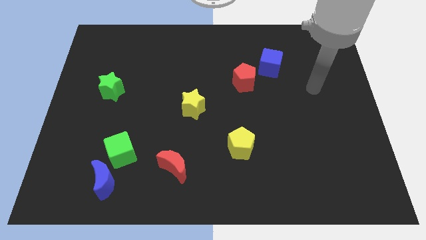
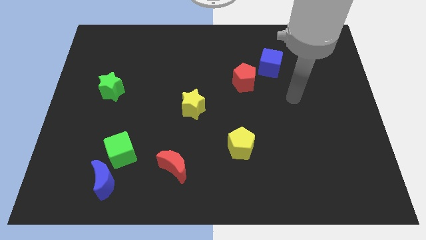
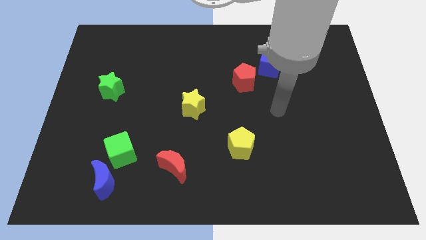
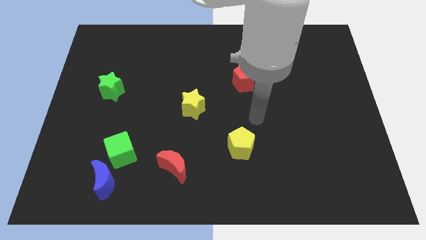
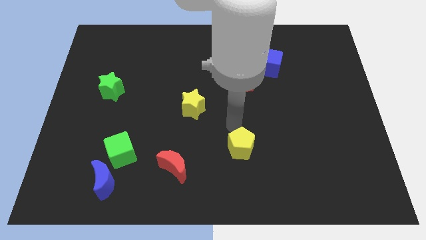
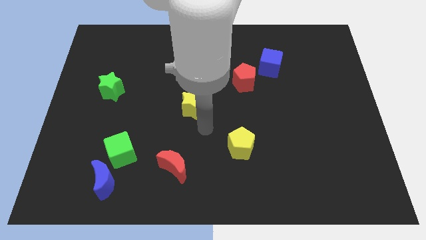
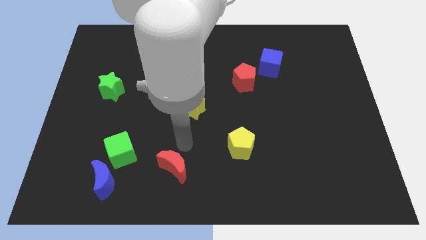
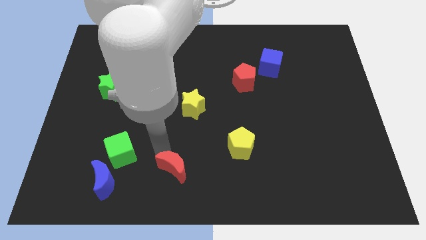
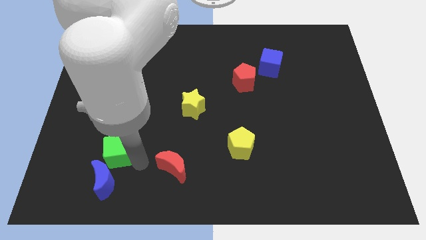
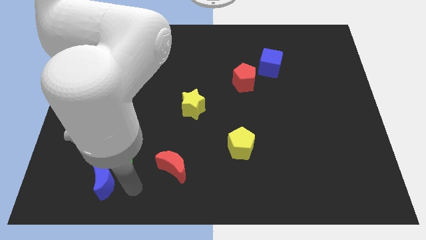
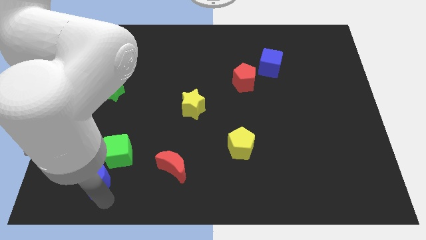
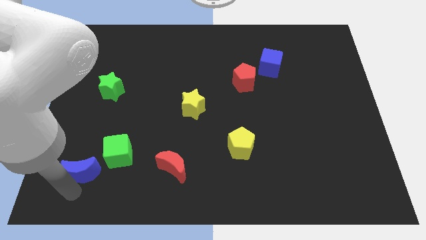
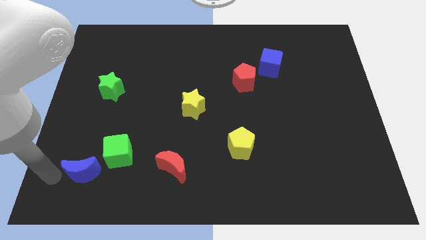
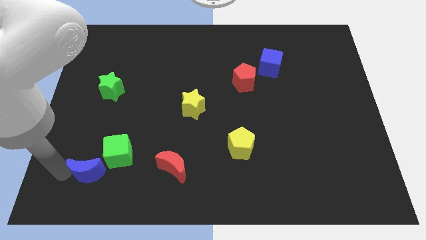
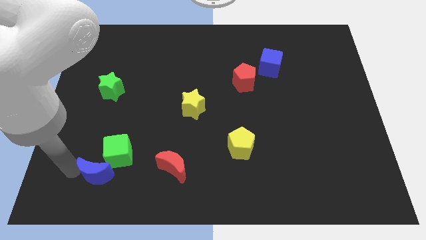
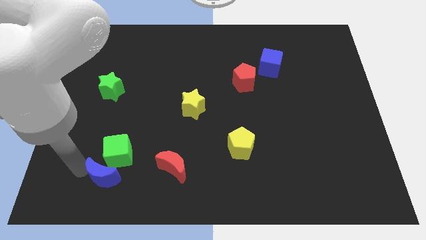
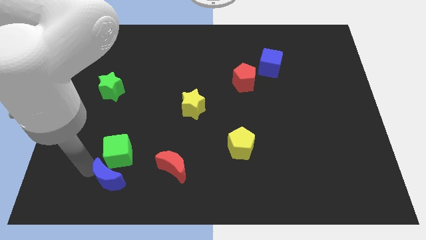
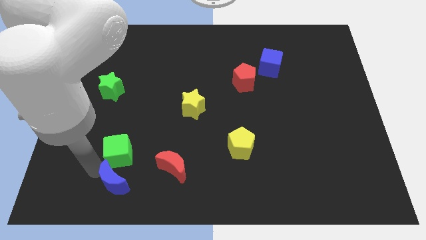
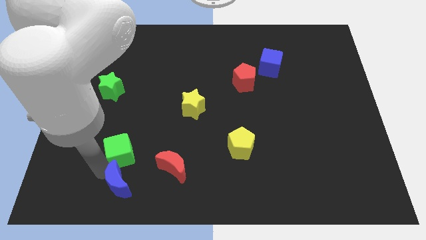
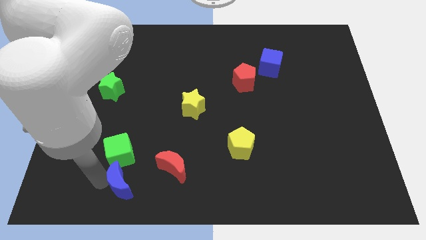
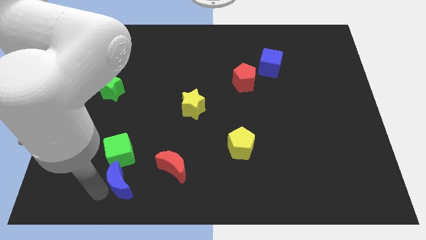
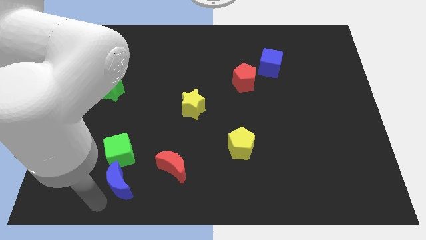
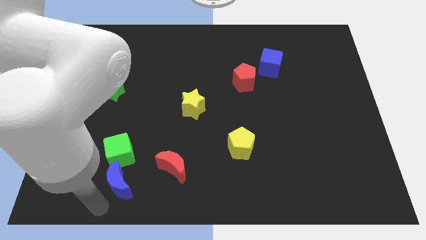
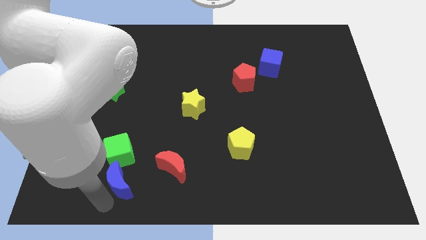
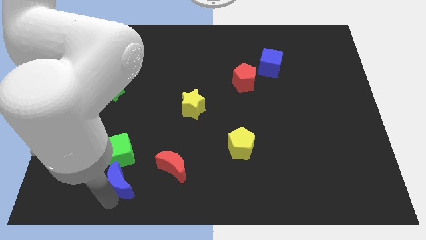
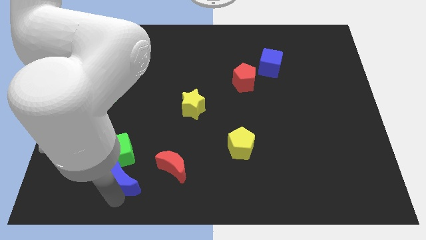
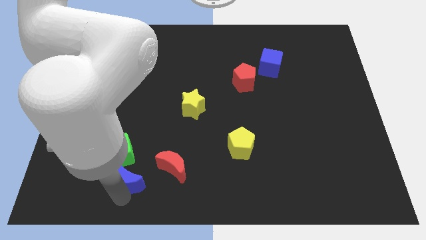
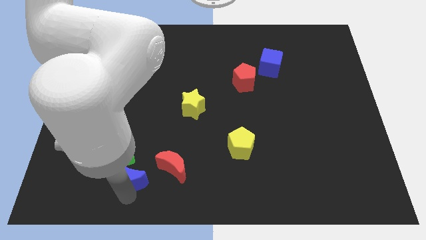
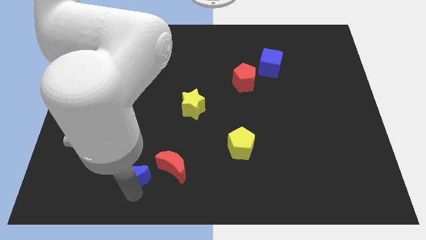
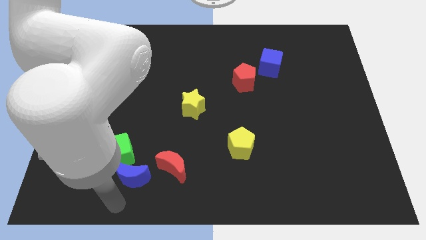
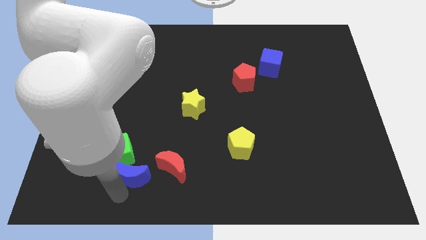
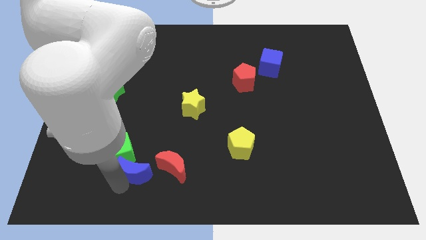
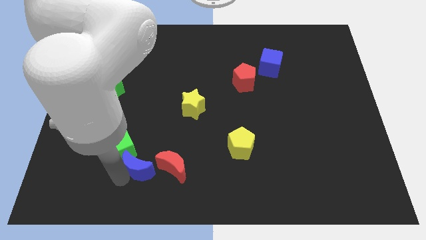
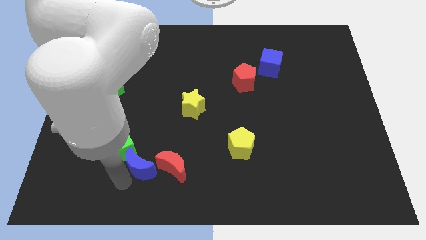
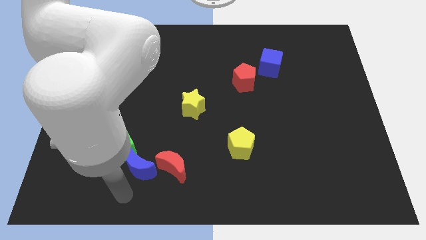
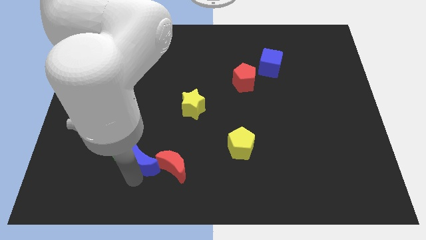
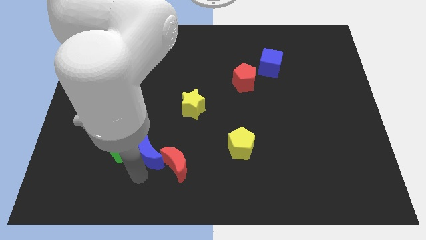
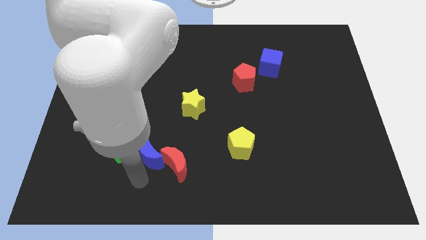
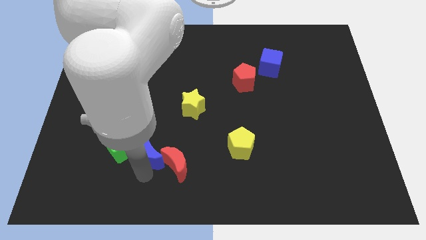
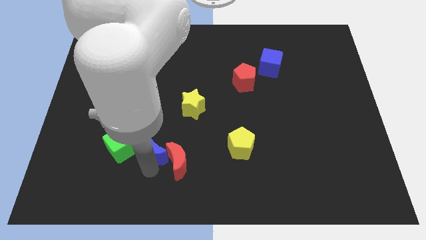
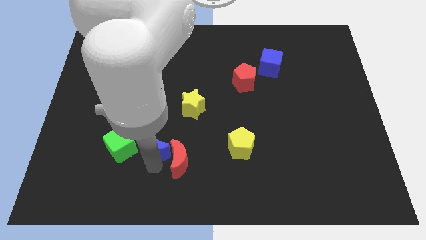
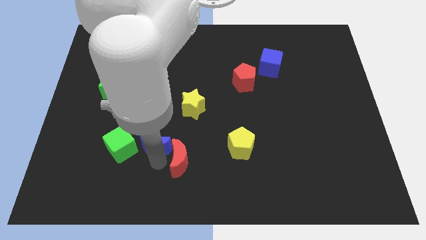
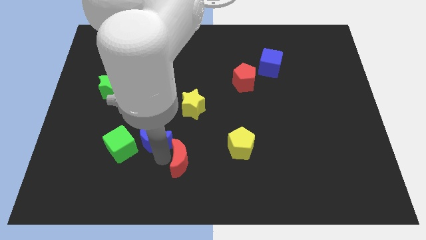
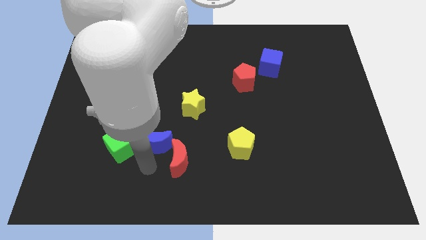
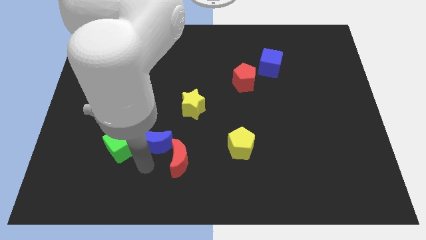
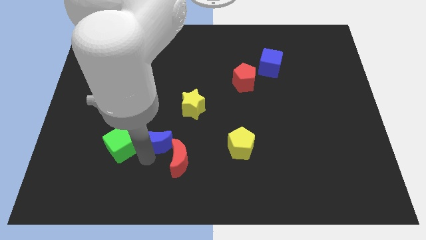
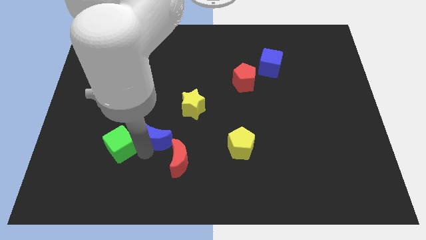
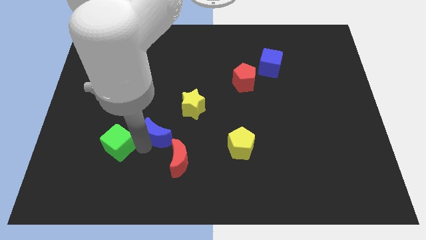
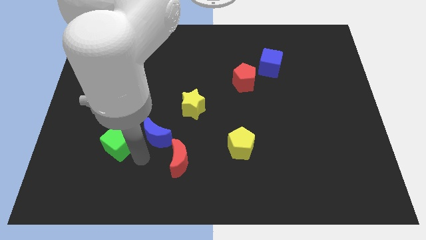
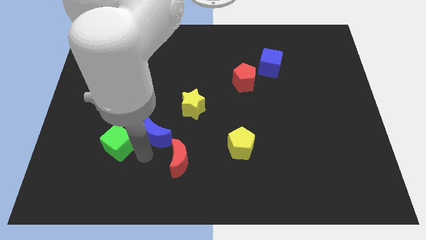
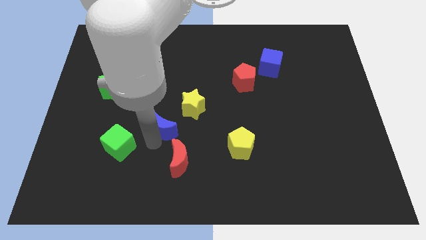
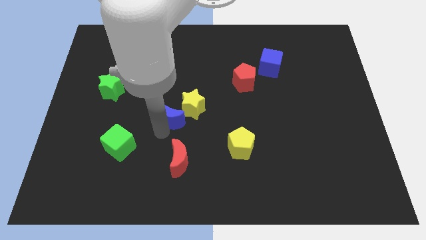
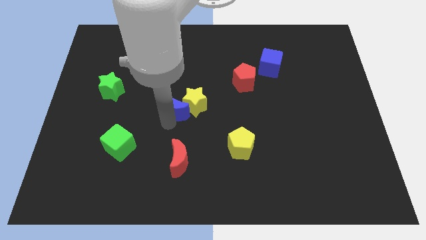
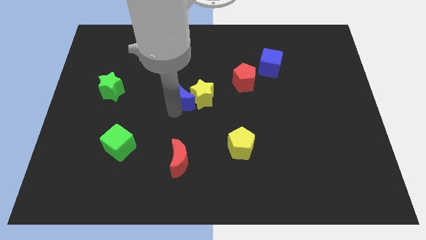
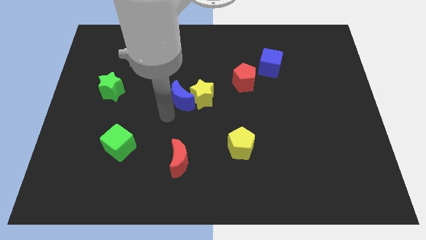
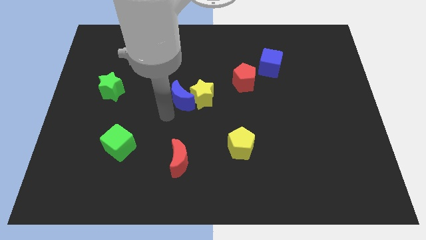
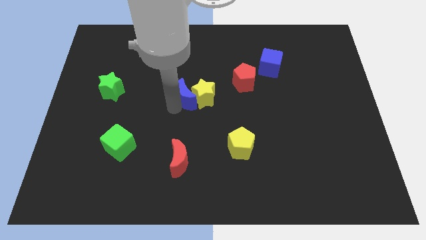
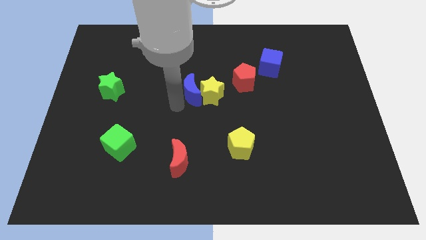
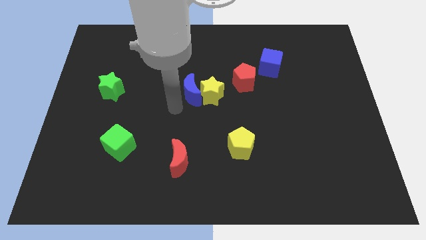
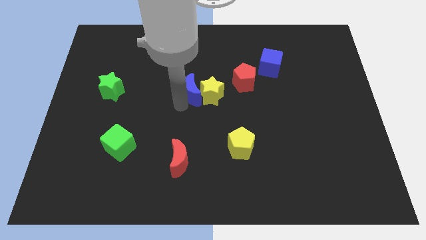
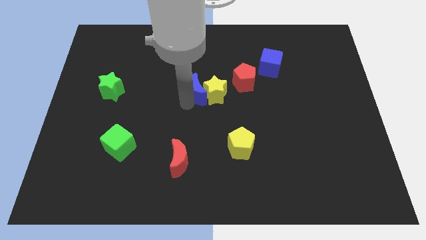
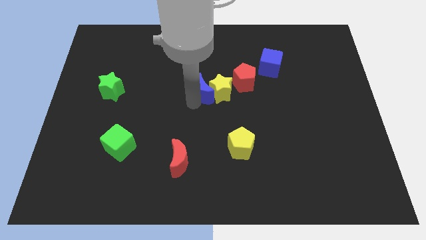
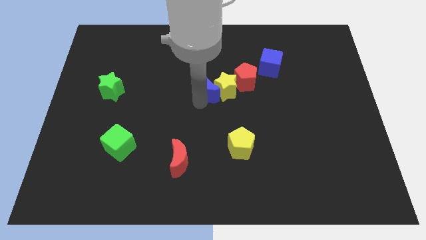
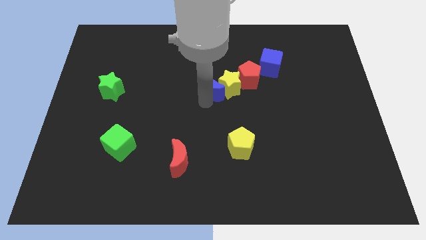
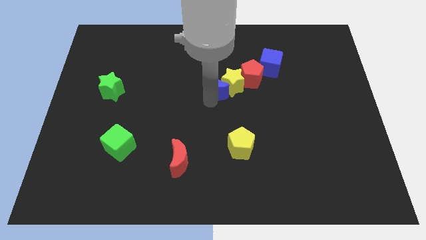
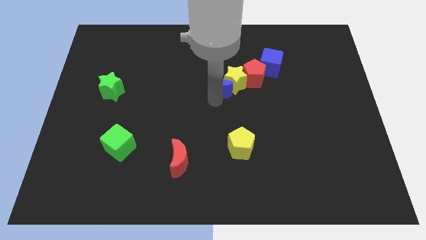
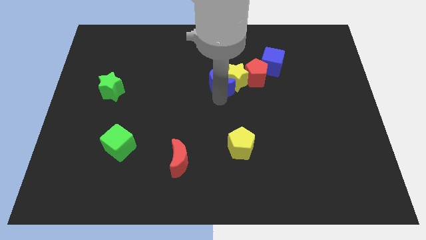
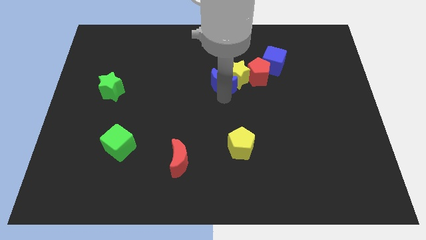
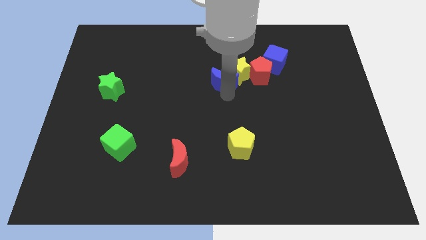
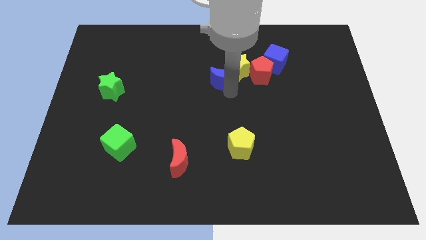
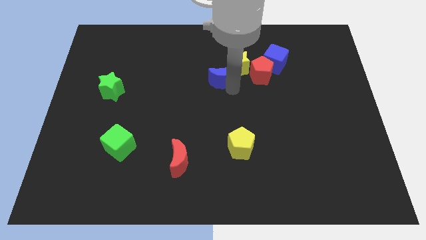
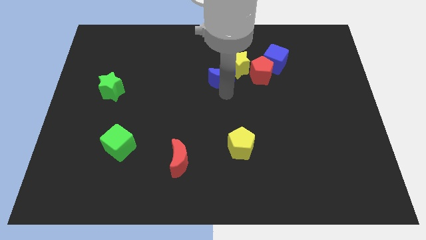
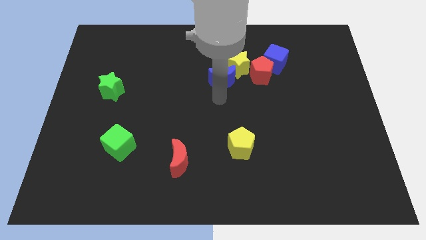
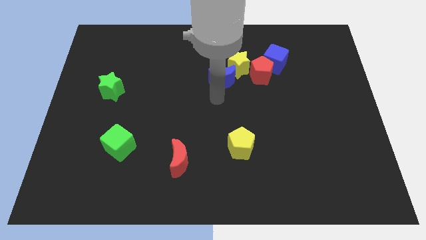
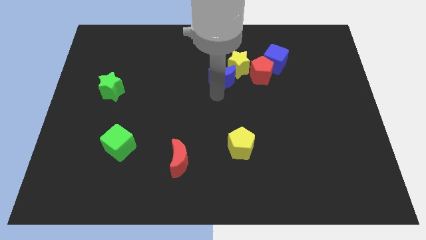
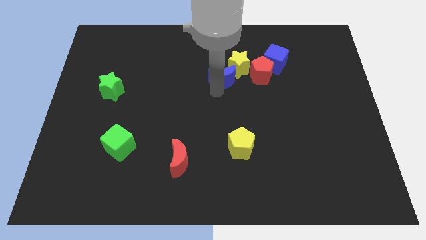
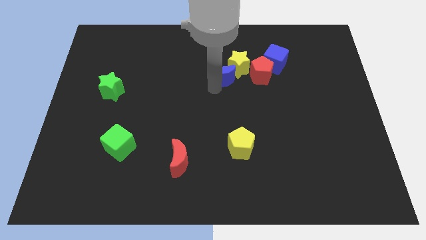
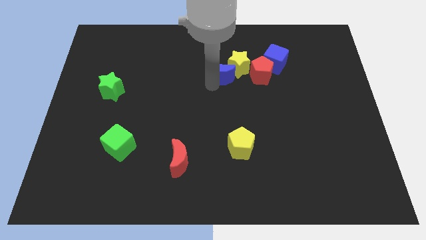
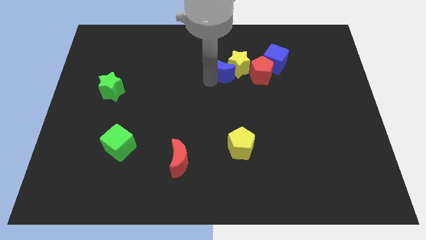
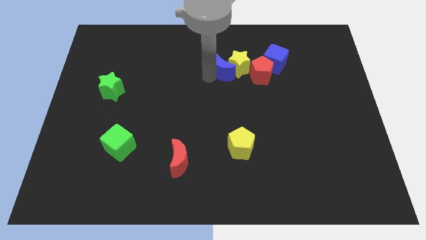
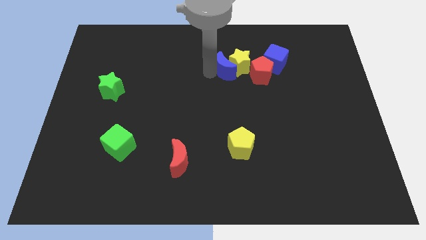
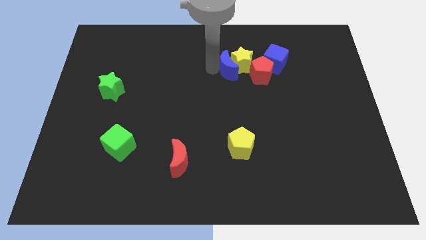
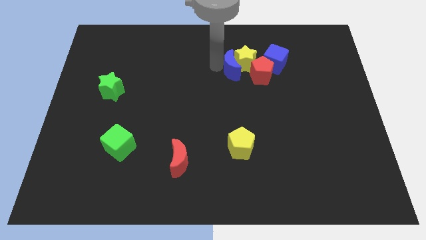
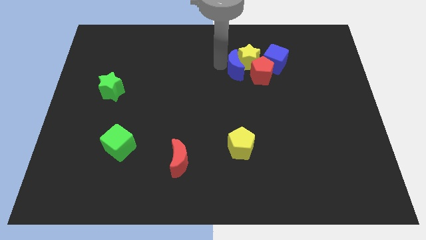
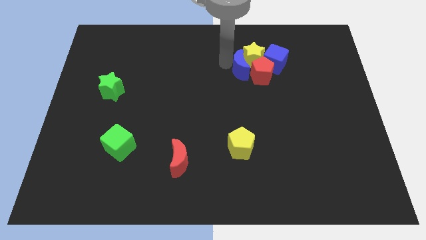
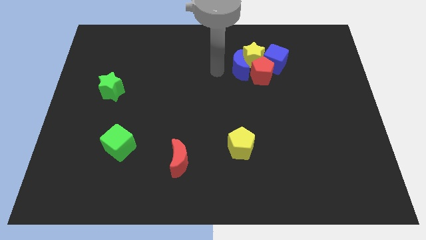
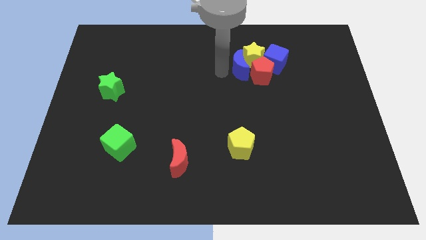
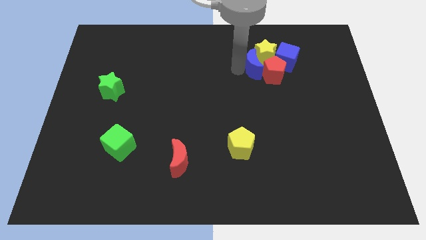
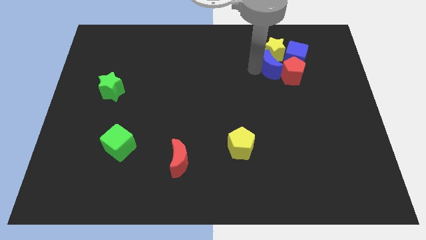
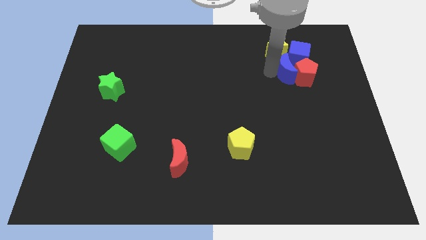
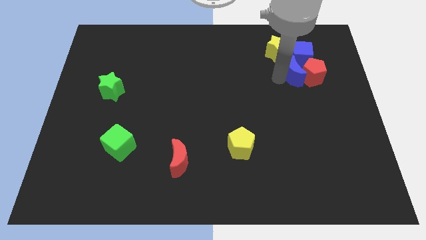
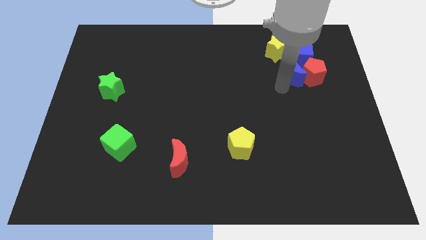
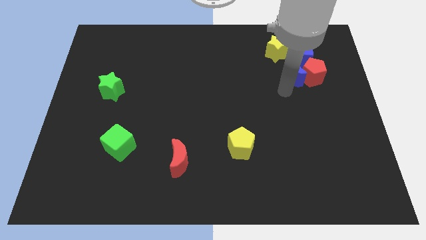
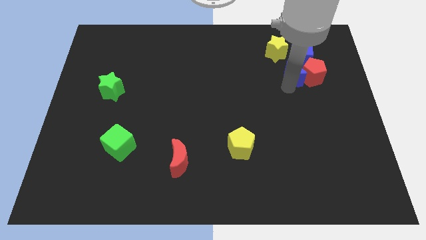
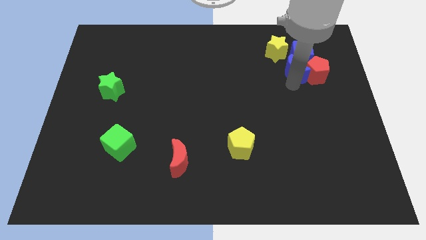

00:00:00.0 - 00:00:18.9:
slide the blue moon next to the blue cube
